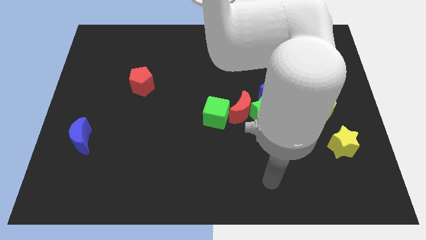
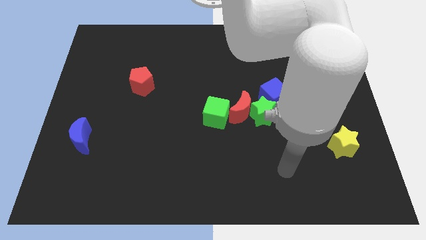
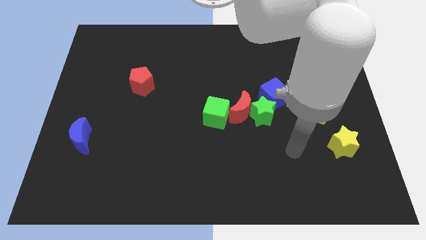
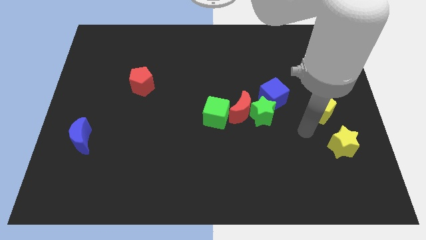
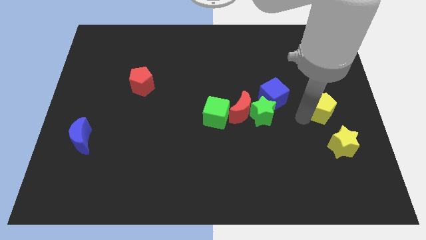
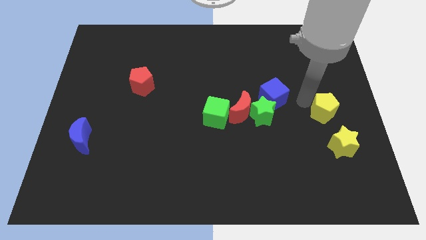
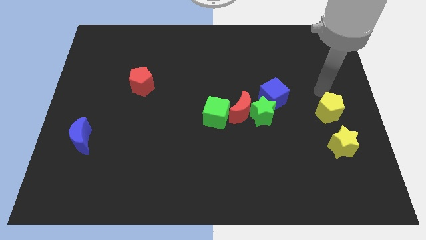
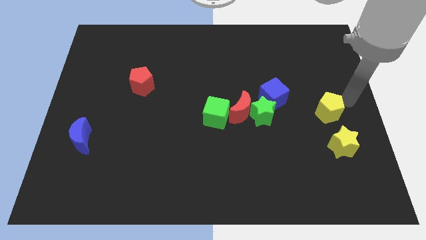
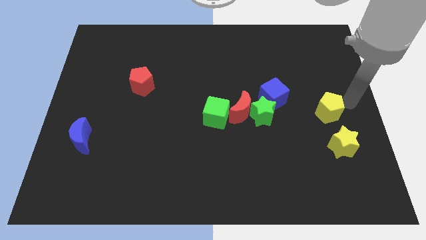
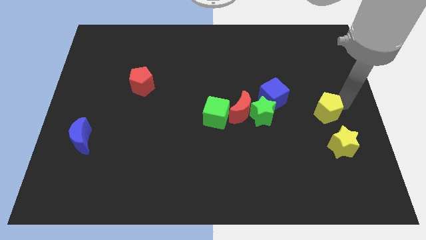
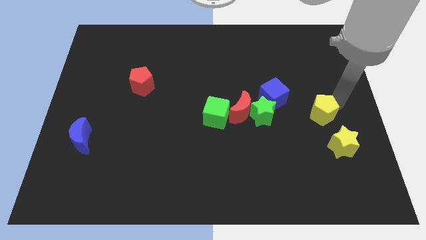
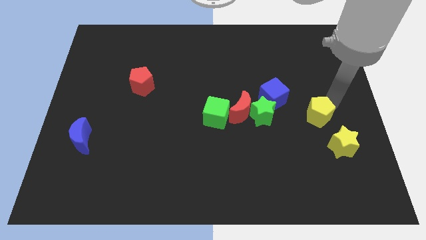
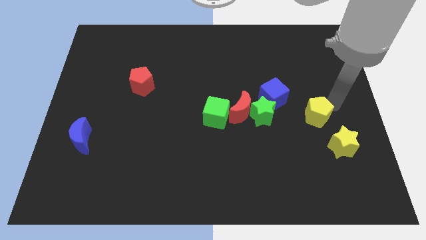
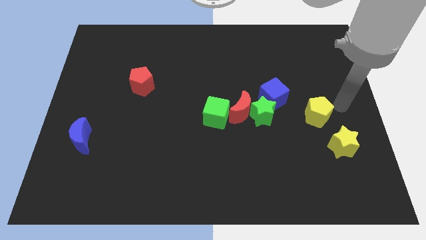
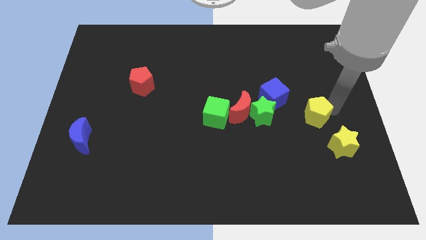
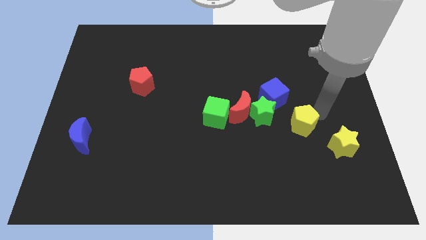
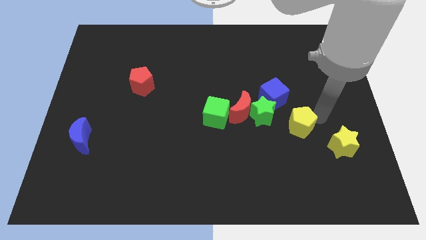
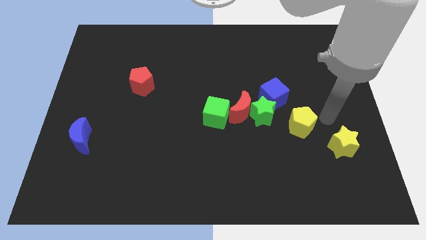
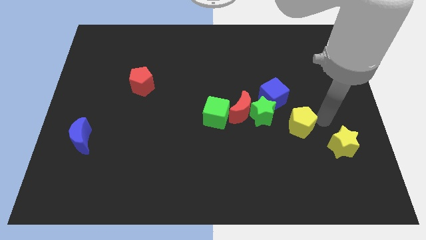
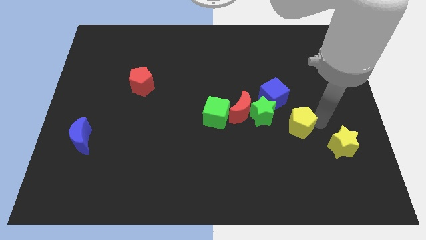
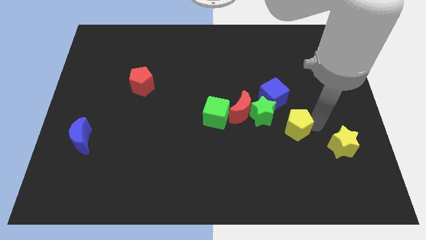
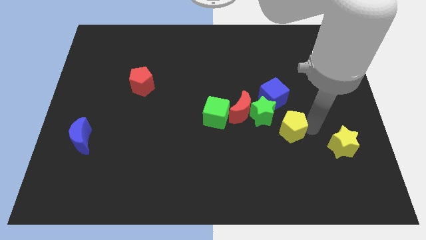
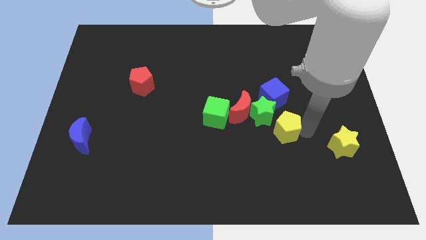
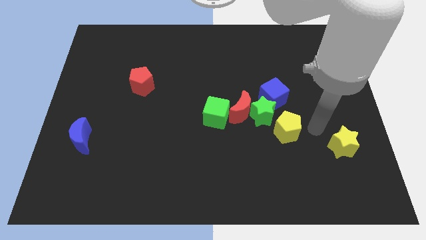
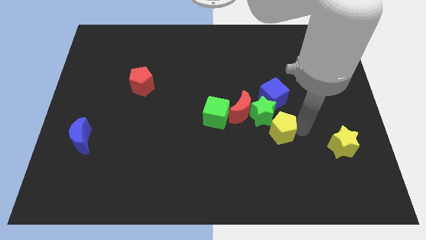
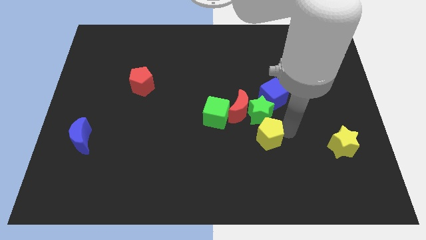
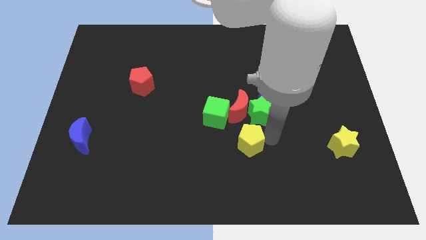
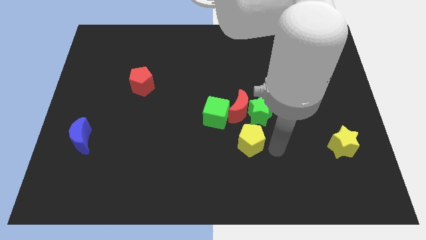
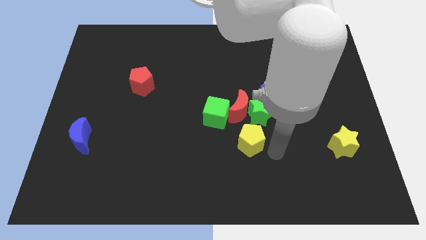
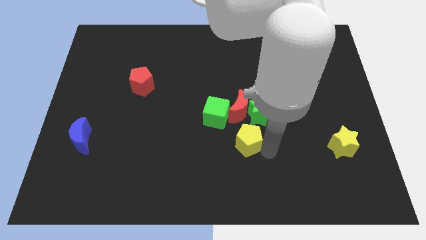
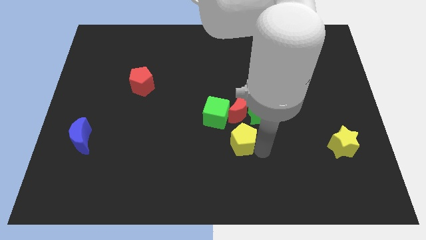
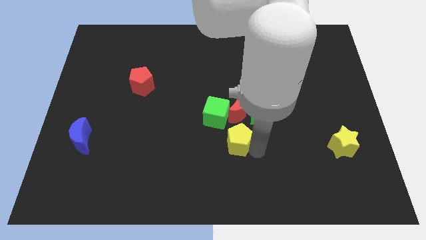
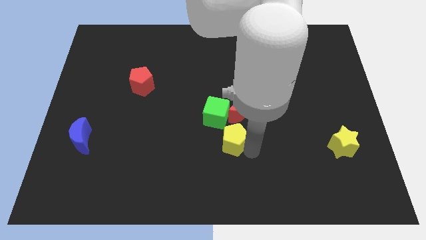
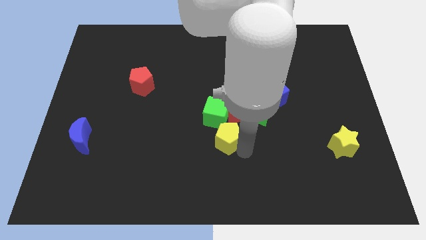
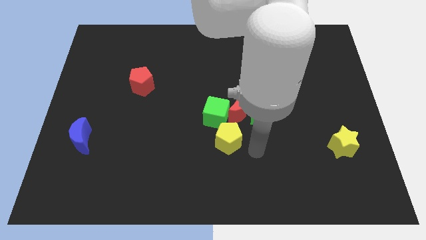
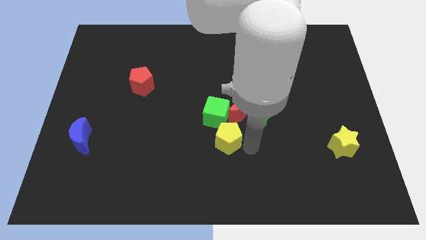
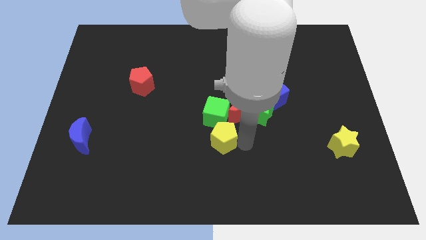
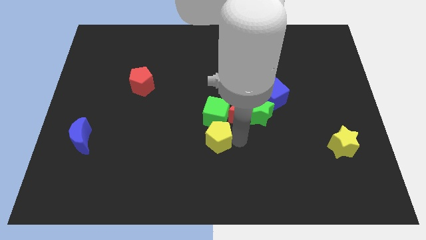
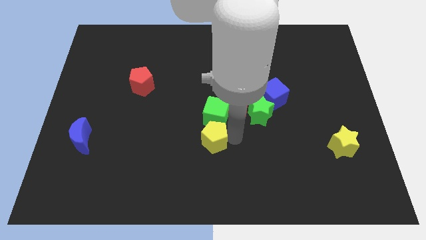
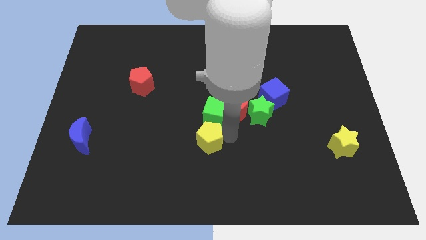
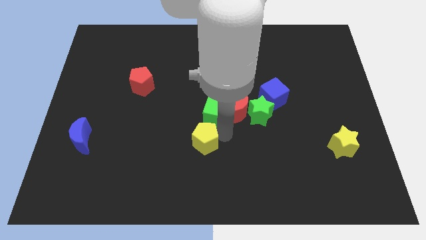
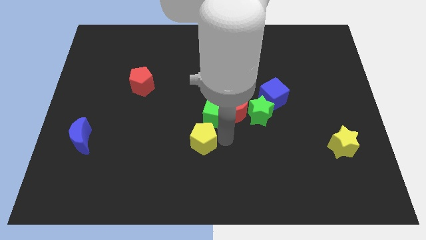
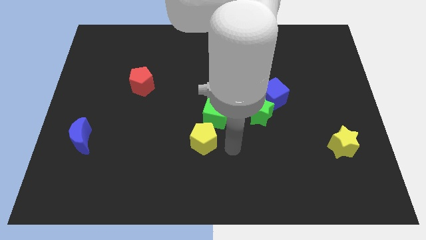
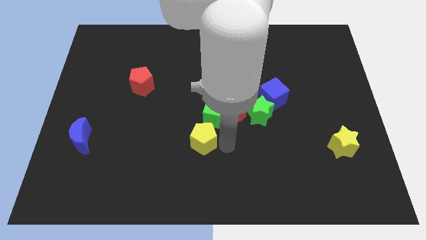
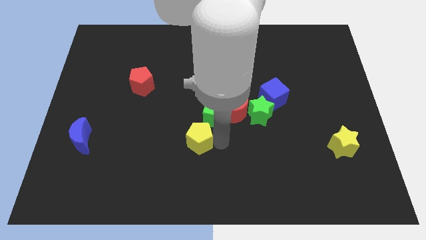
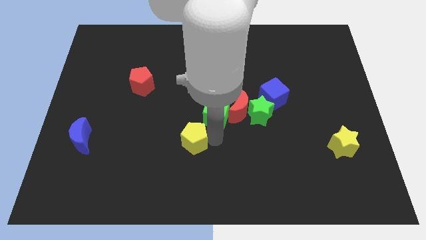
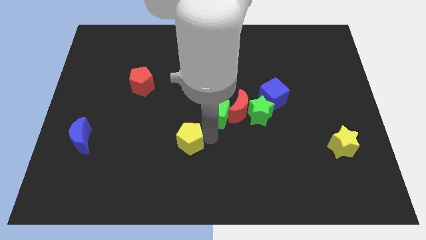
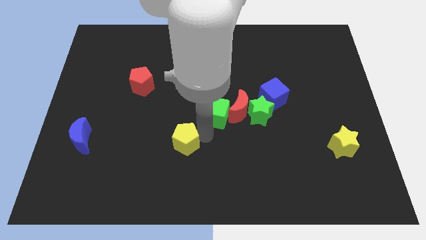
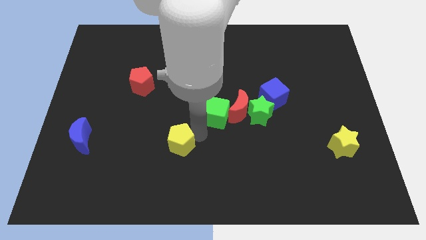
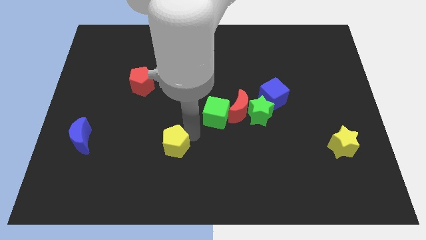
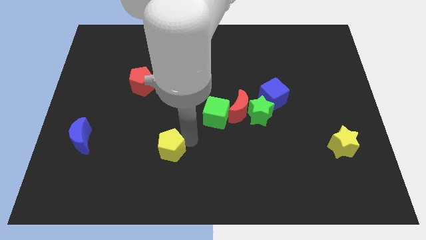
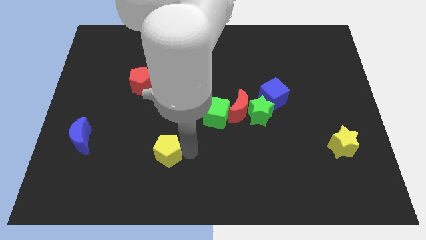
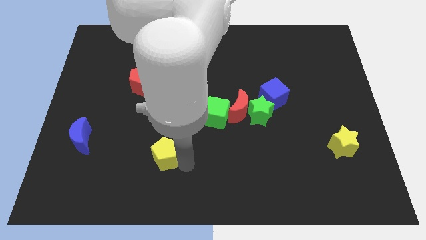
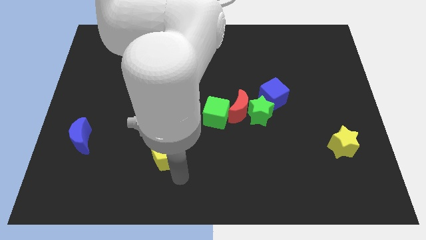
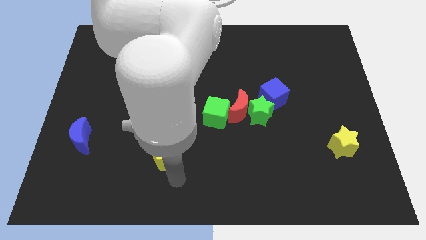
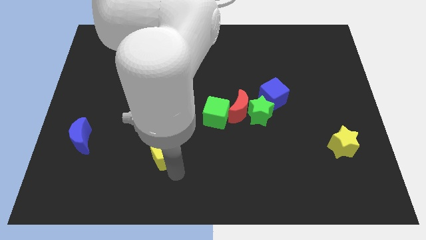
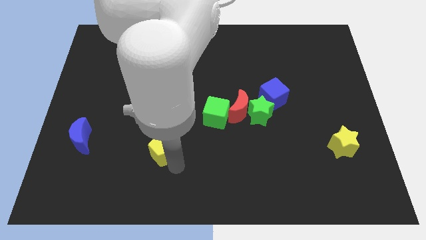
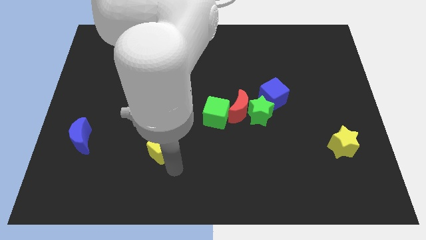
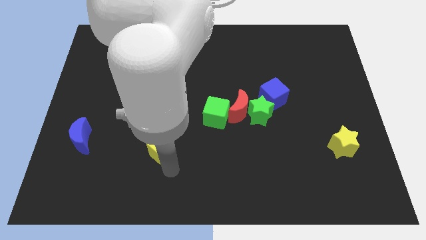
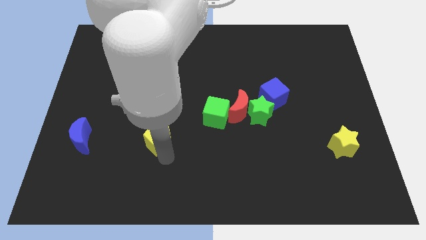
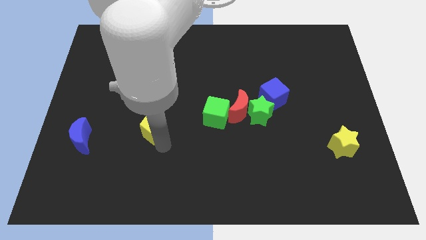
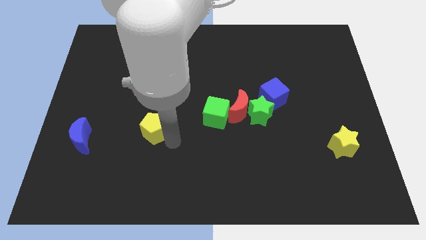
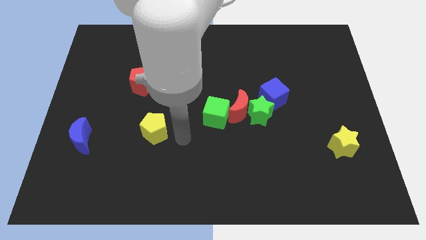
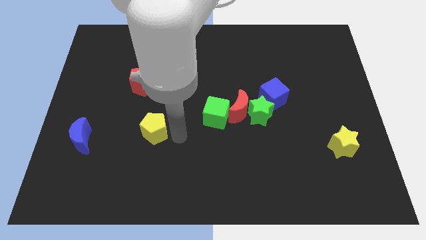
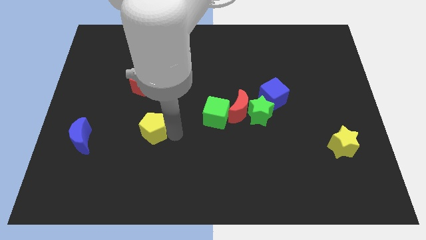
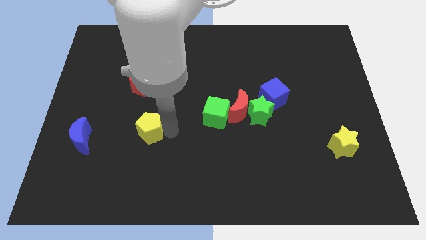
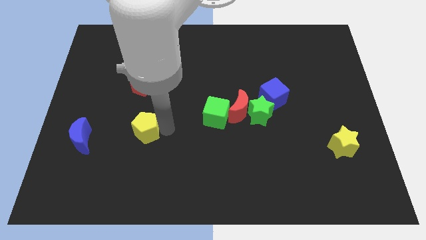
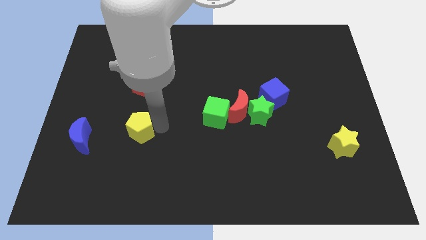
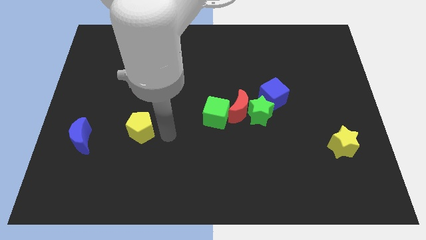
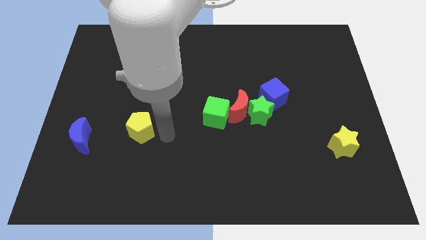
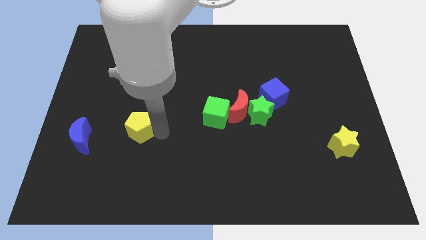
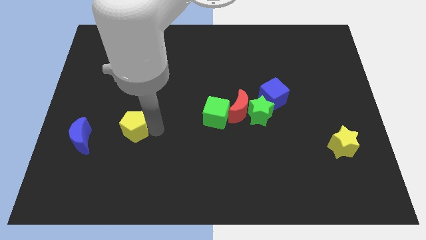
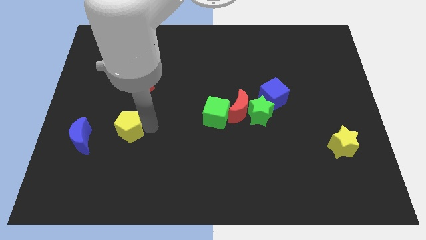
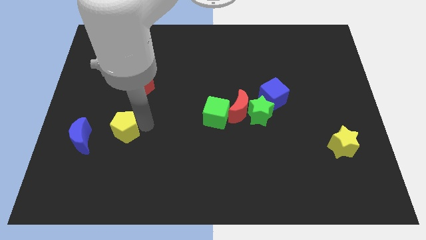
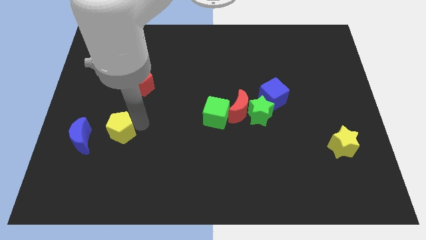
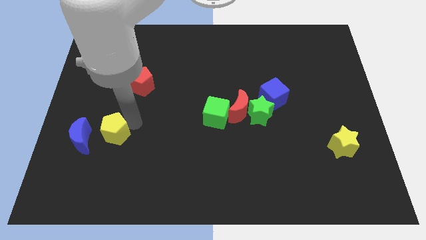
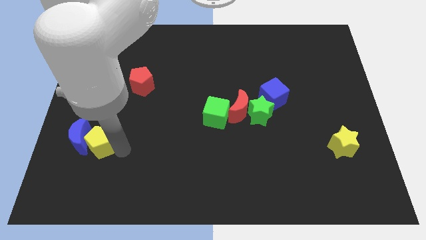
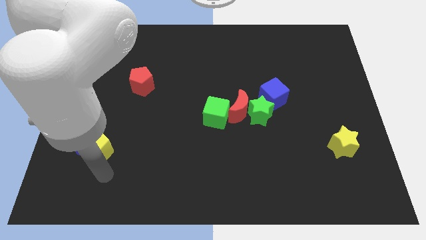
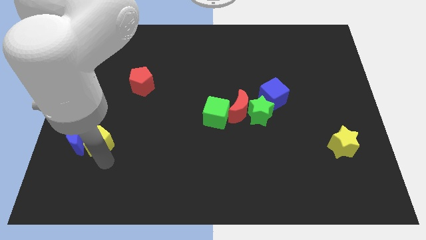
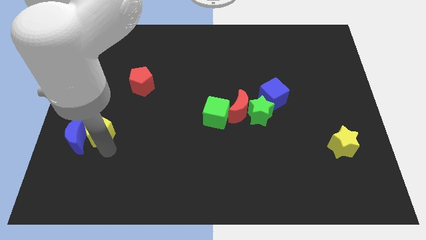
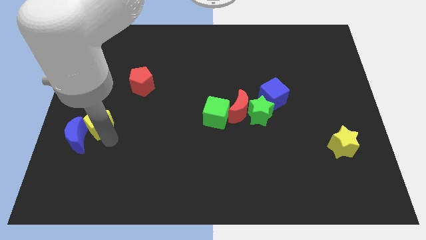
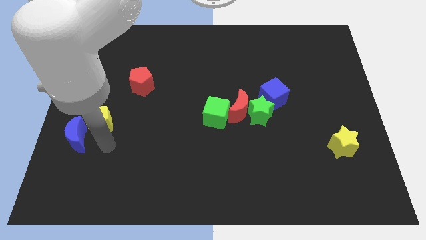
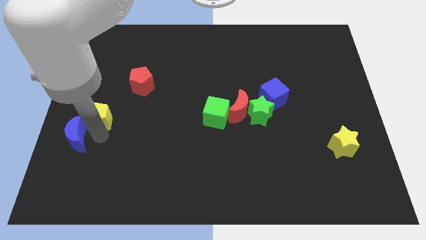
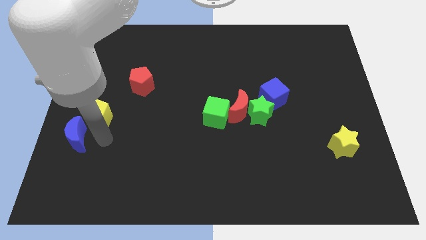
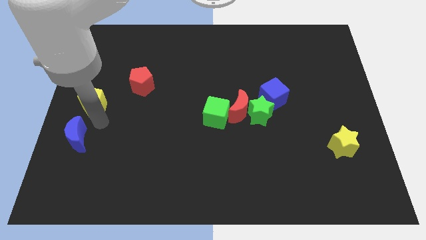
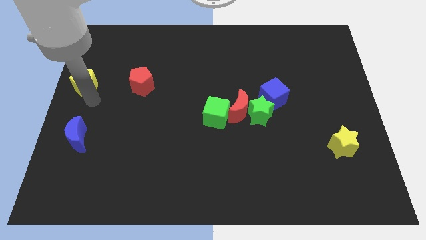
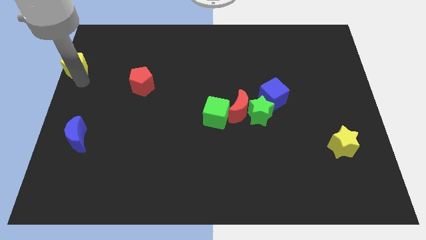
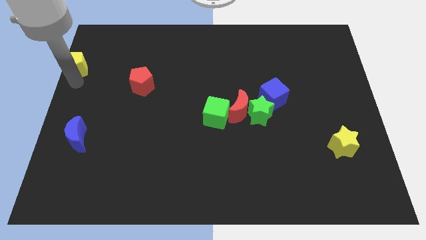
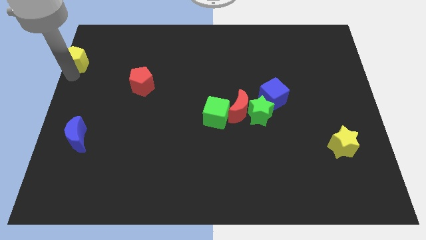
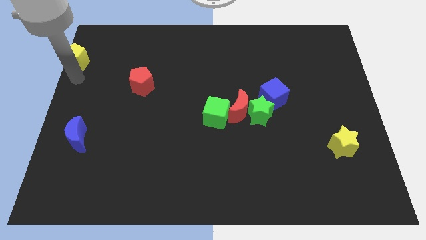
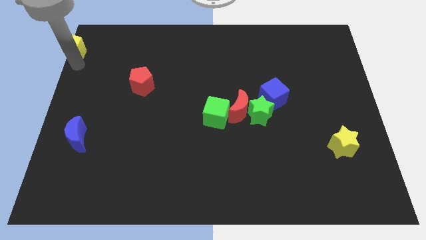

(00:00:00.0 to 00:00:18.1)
push the yellow pentagon to the top left
